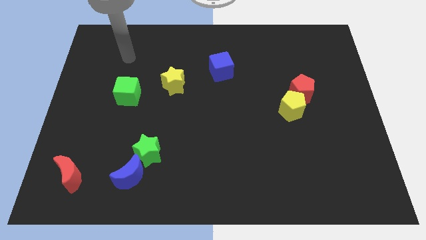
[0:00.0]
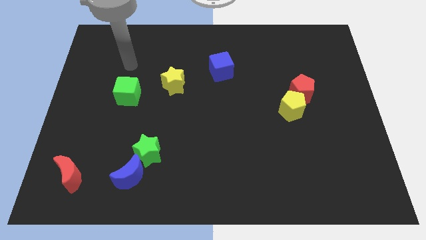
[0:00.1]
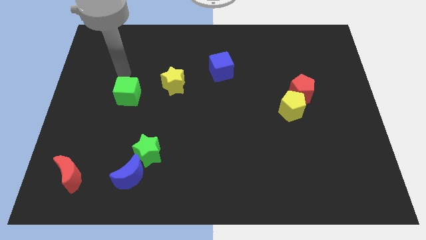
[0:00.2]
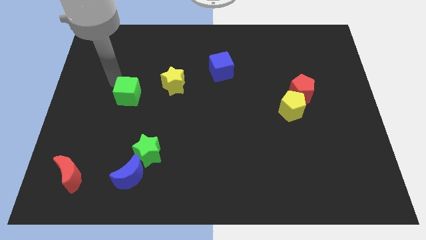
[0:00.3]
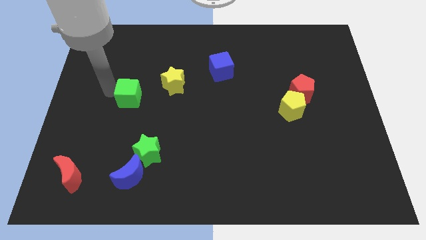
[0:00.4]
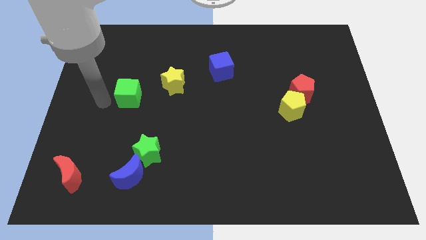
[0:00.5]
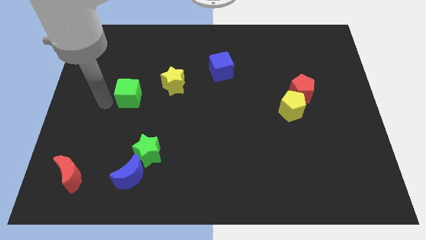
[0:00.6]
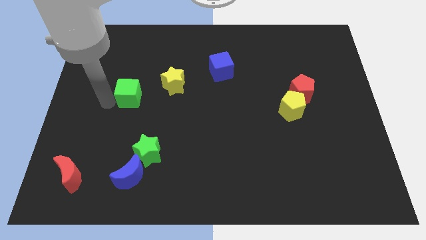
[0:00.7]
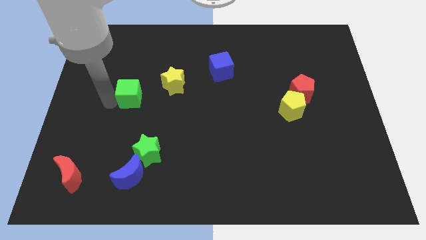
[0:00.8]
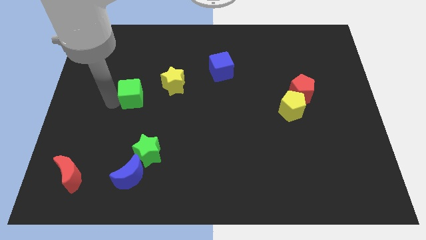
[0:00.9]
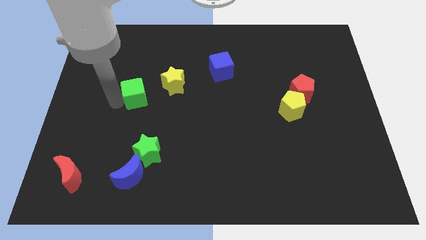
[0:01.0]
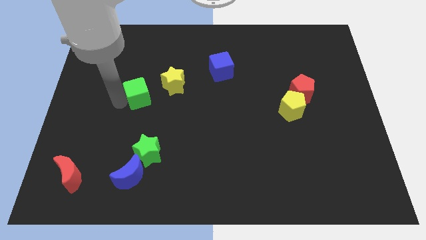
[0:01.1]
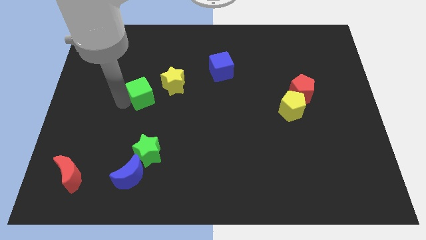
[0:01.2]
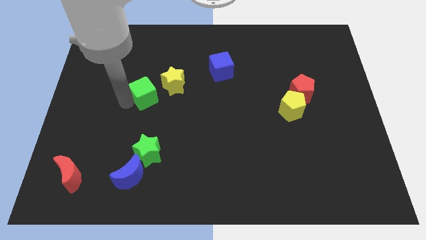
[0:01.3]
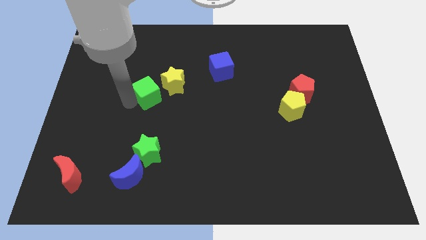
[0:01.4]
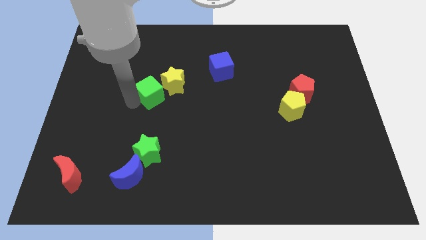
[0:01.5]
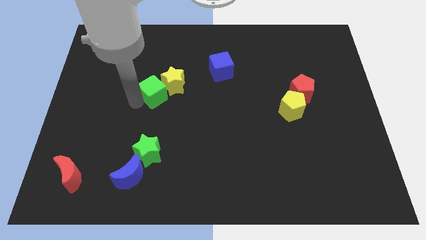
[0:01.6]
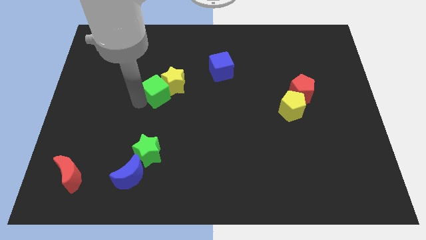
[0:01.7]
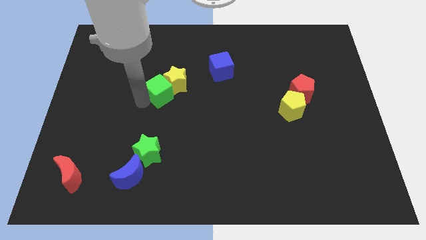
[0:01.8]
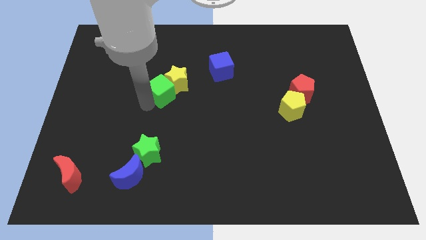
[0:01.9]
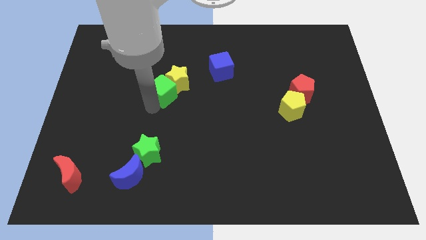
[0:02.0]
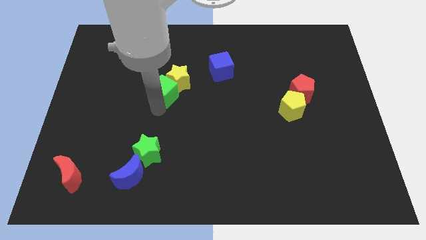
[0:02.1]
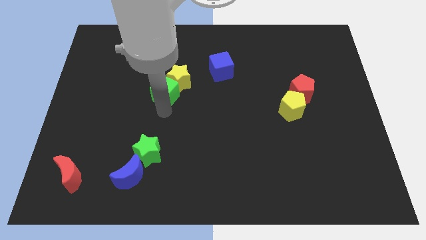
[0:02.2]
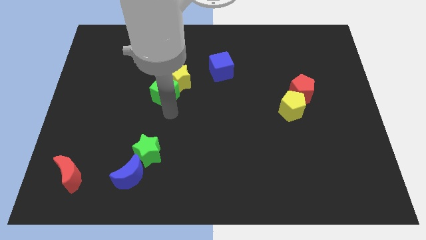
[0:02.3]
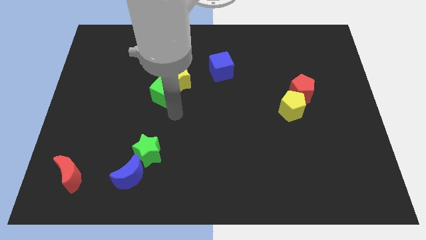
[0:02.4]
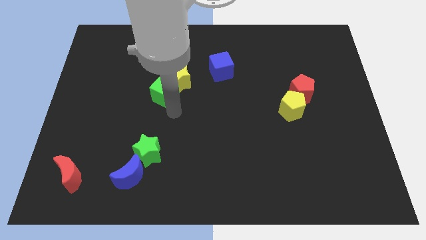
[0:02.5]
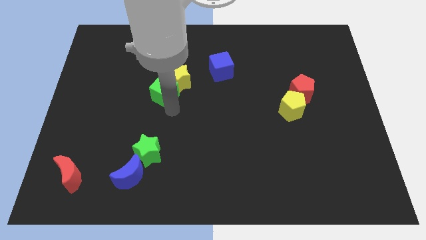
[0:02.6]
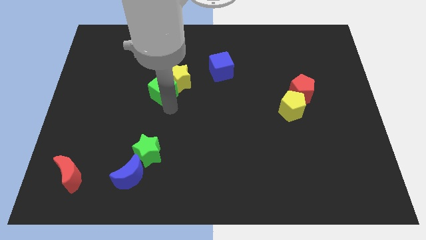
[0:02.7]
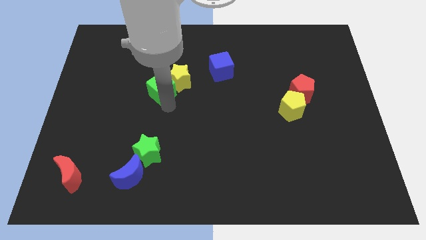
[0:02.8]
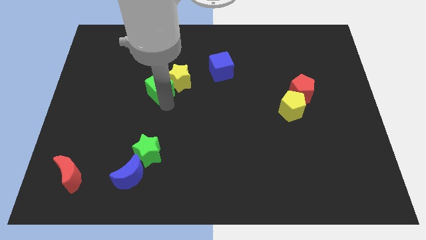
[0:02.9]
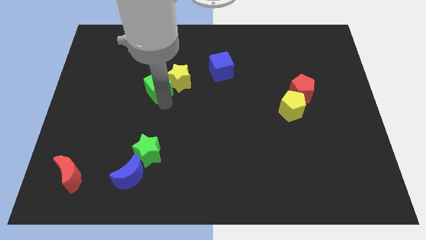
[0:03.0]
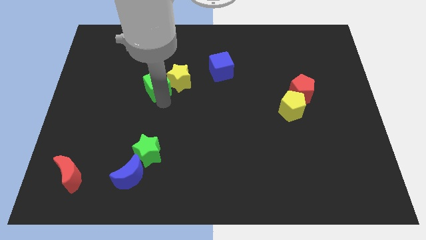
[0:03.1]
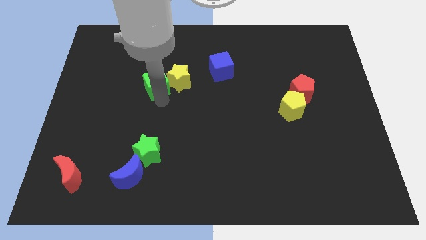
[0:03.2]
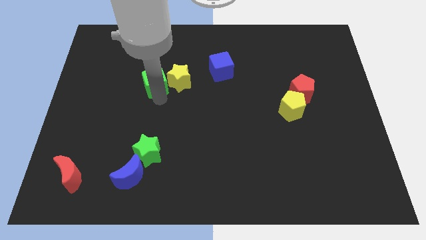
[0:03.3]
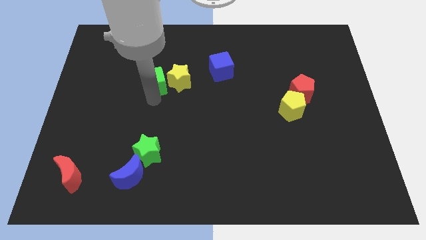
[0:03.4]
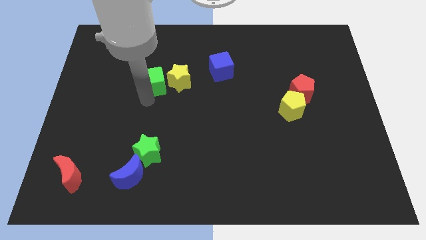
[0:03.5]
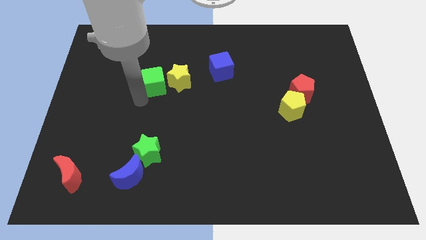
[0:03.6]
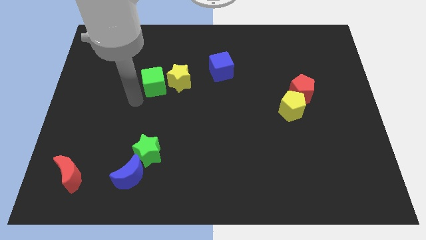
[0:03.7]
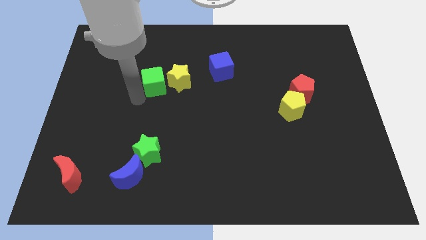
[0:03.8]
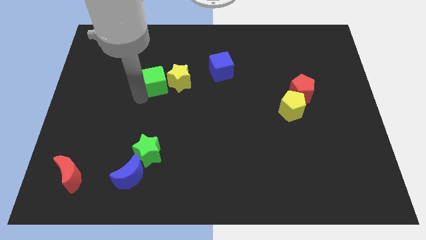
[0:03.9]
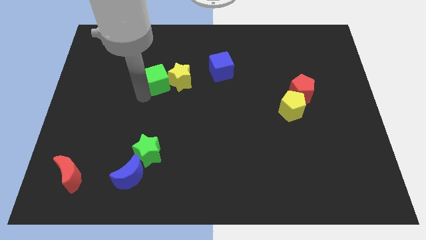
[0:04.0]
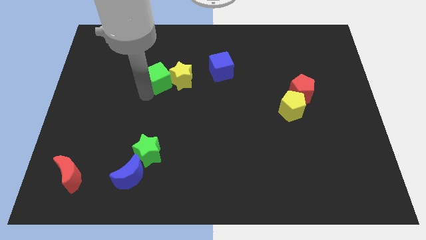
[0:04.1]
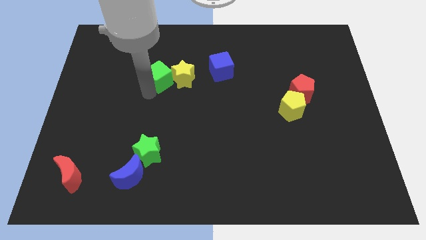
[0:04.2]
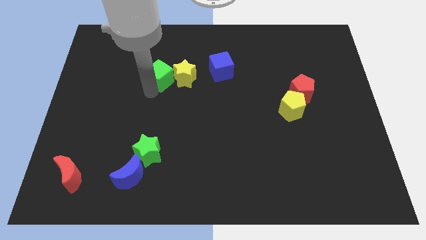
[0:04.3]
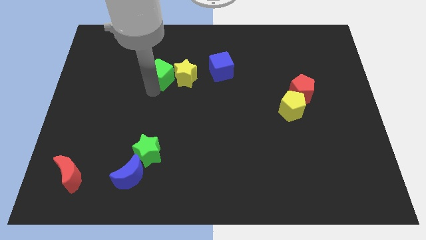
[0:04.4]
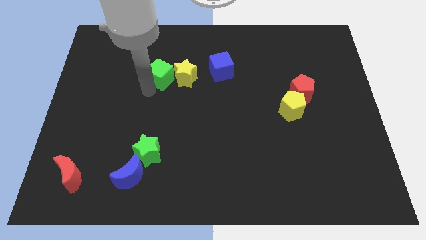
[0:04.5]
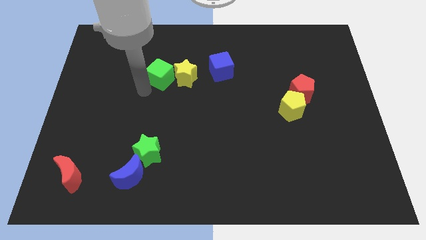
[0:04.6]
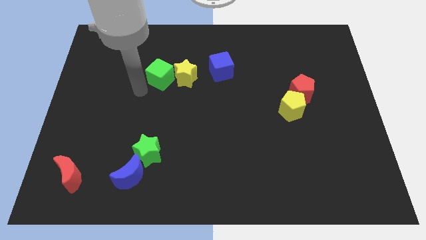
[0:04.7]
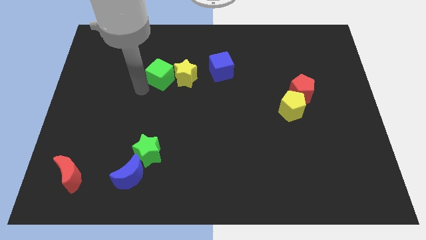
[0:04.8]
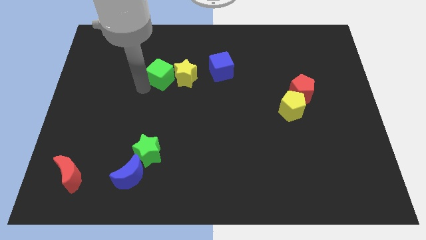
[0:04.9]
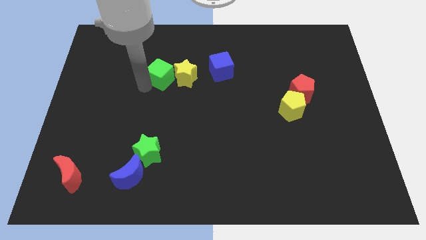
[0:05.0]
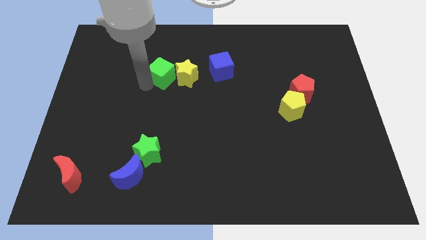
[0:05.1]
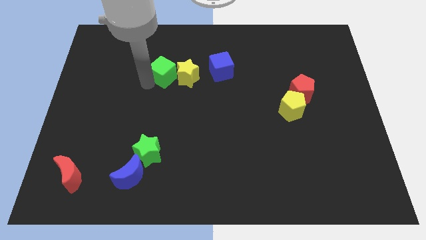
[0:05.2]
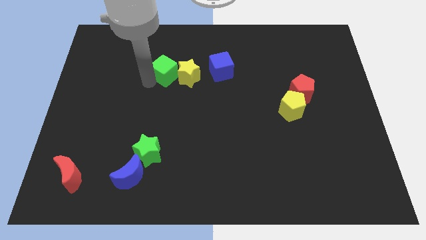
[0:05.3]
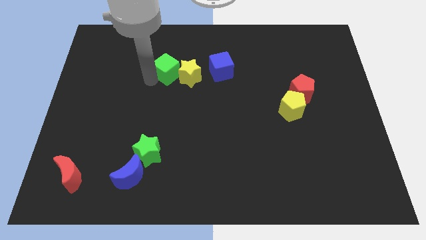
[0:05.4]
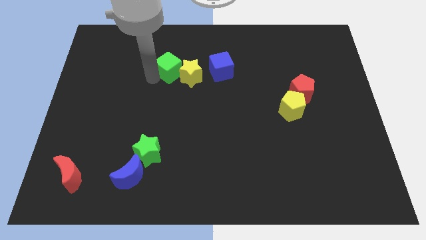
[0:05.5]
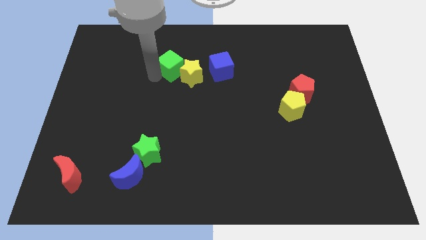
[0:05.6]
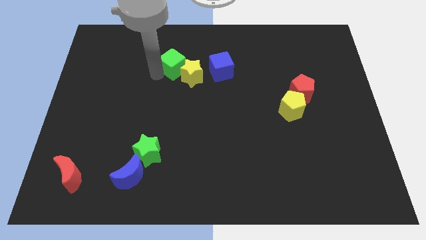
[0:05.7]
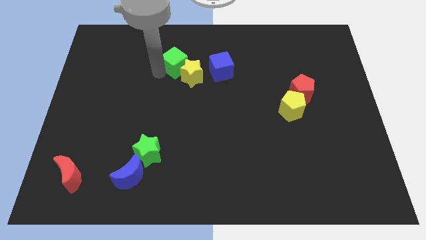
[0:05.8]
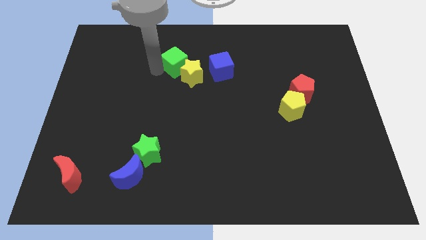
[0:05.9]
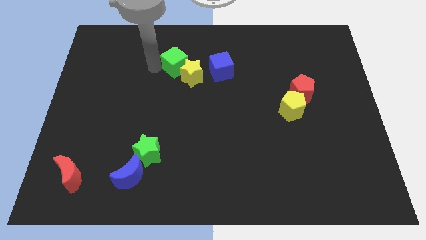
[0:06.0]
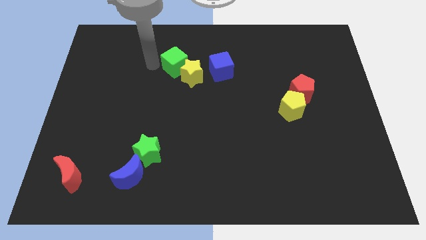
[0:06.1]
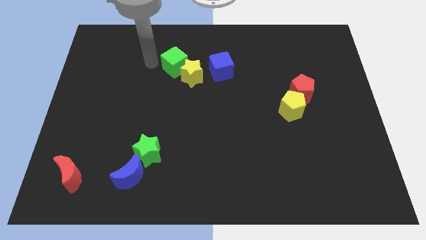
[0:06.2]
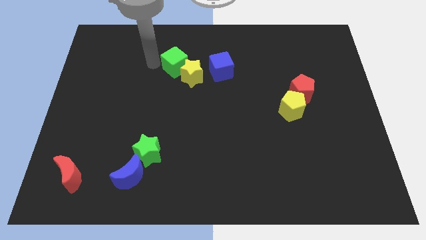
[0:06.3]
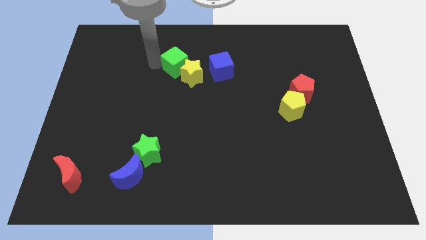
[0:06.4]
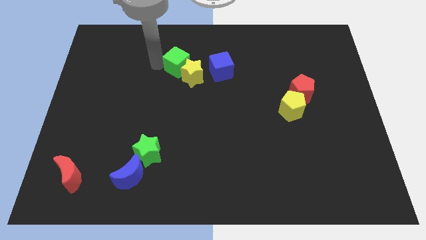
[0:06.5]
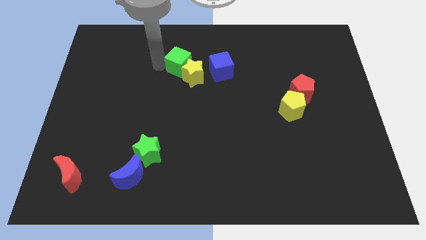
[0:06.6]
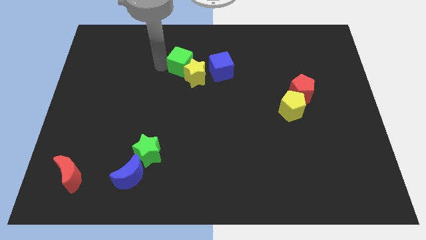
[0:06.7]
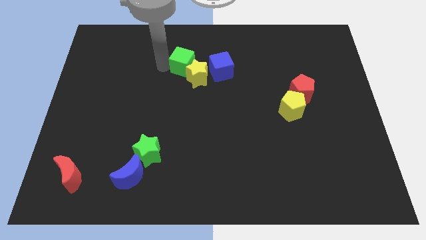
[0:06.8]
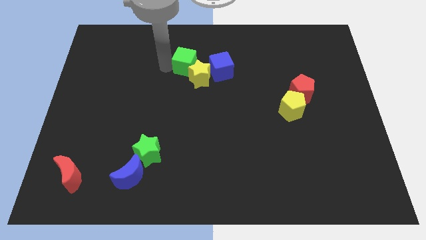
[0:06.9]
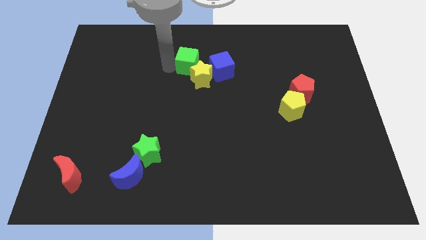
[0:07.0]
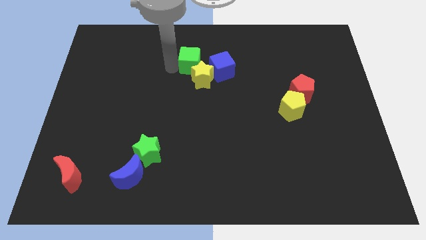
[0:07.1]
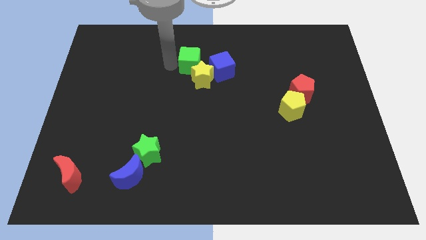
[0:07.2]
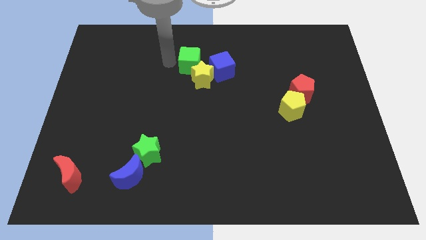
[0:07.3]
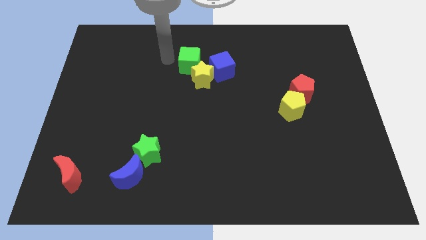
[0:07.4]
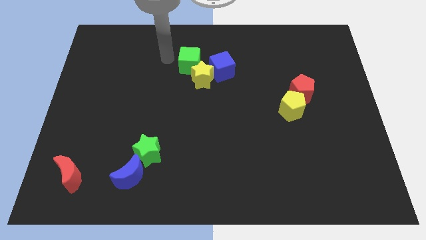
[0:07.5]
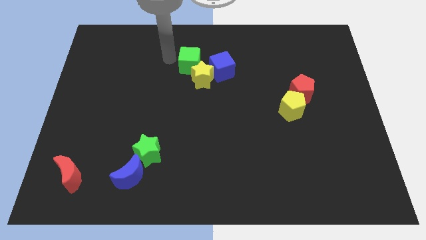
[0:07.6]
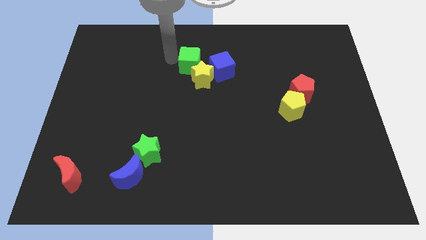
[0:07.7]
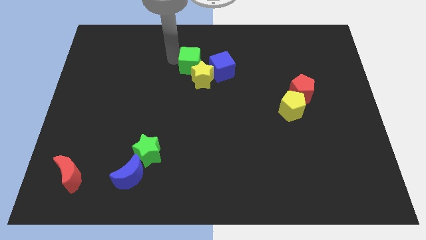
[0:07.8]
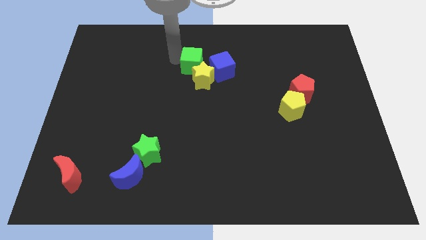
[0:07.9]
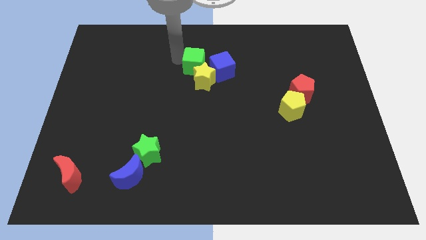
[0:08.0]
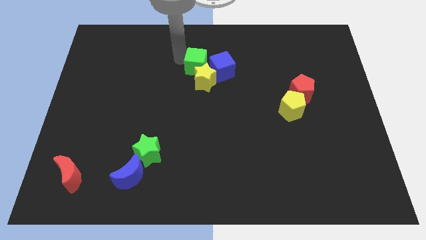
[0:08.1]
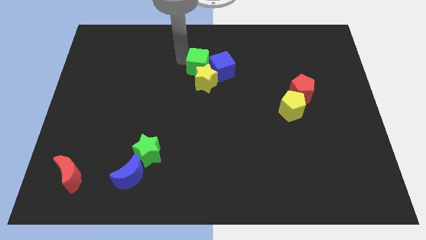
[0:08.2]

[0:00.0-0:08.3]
slide the green cube to the blue cube
